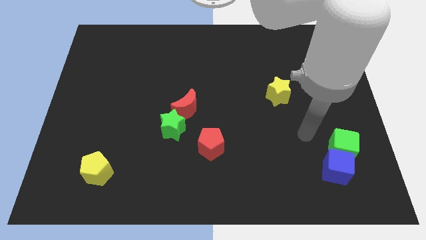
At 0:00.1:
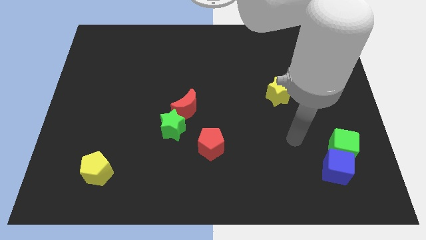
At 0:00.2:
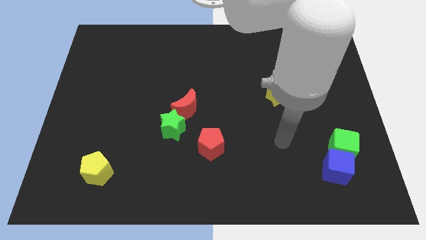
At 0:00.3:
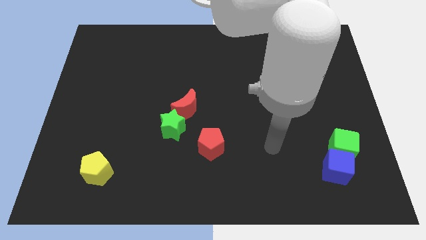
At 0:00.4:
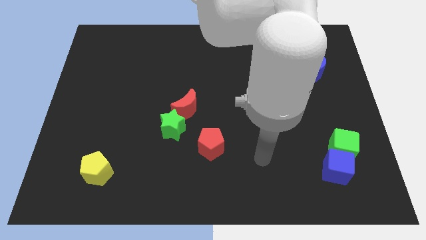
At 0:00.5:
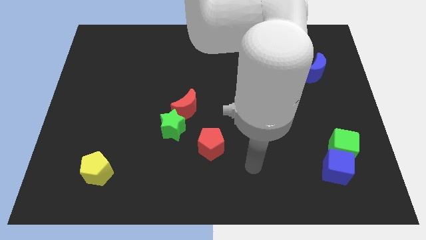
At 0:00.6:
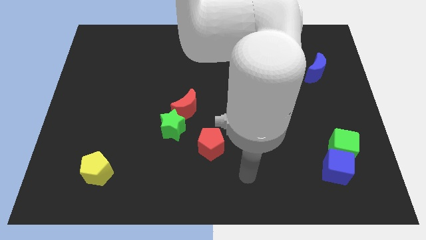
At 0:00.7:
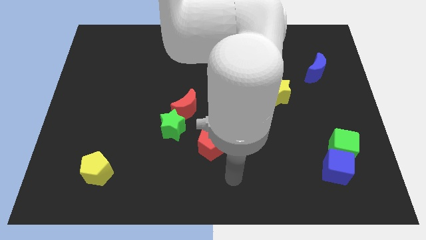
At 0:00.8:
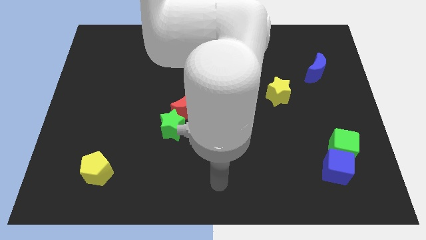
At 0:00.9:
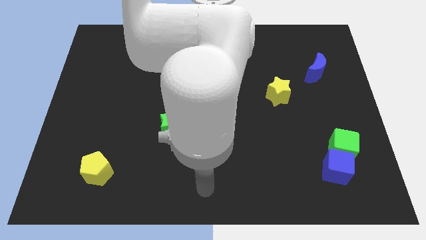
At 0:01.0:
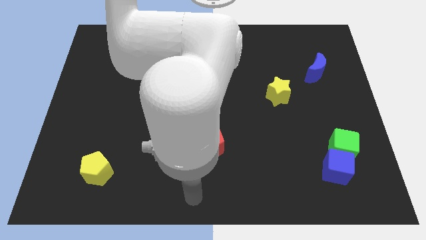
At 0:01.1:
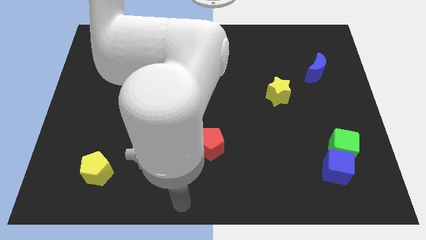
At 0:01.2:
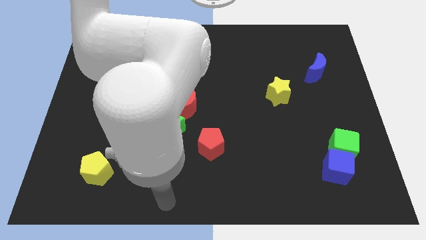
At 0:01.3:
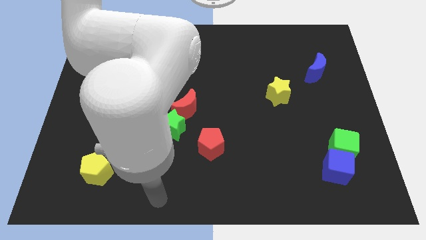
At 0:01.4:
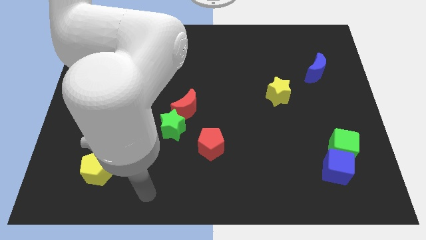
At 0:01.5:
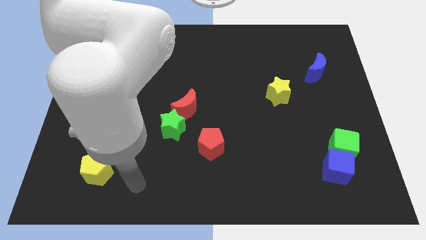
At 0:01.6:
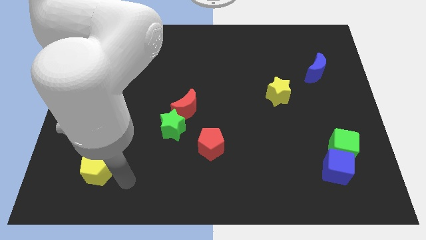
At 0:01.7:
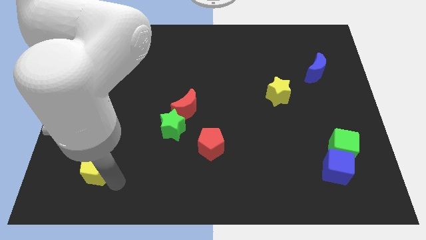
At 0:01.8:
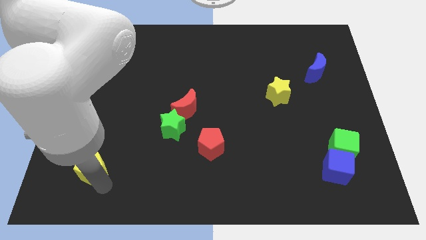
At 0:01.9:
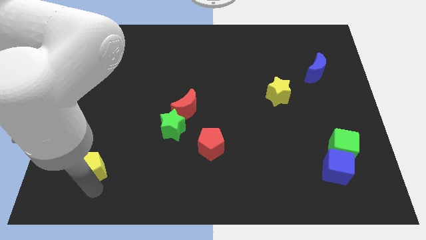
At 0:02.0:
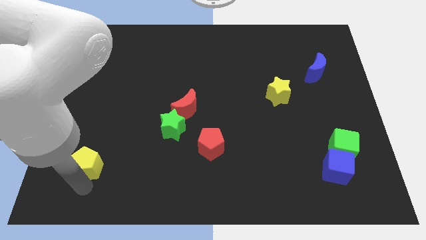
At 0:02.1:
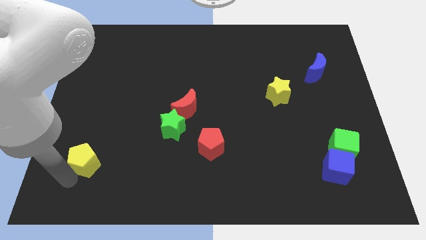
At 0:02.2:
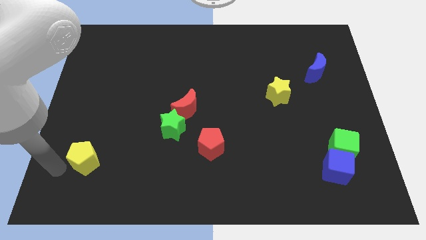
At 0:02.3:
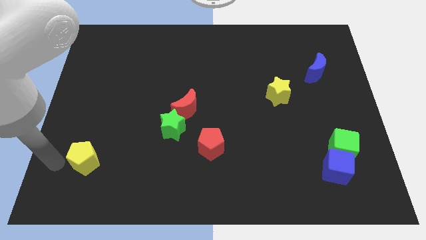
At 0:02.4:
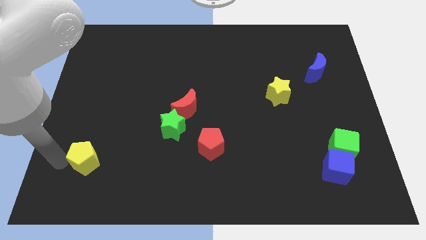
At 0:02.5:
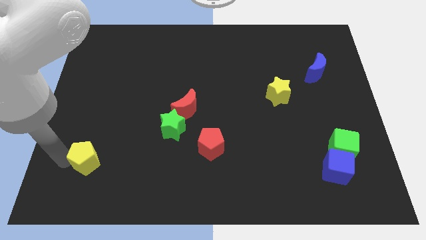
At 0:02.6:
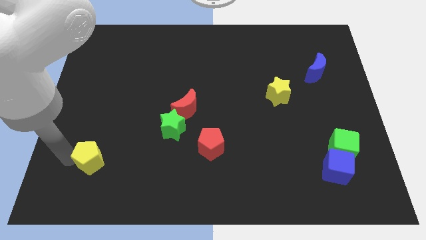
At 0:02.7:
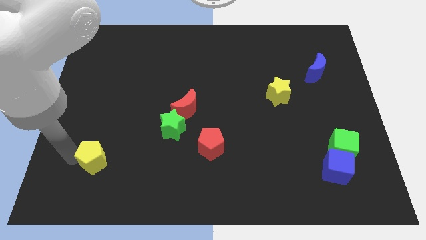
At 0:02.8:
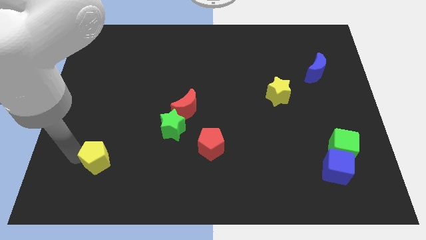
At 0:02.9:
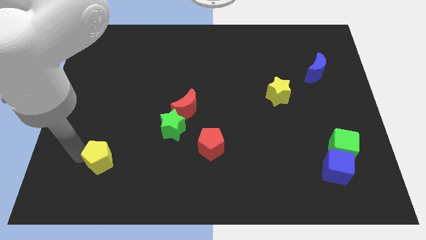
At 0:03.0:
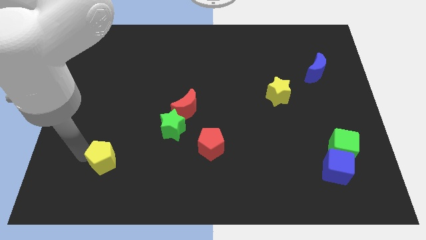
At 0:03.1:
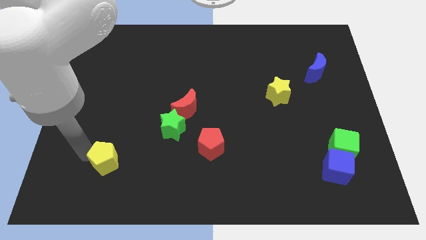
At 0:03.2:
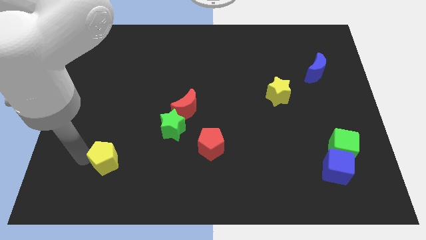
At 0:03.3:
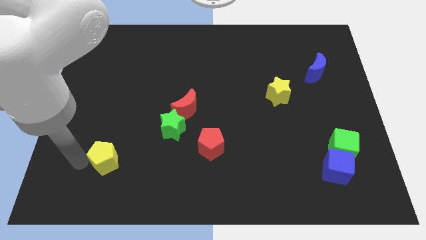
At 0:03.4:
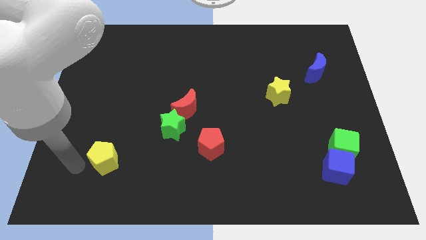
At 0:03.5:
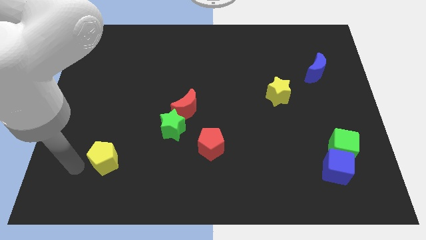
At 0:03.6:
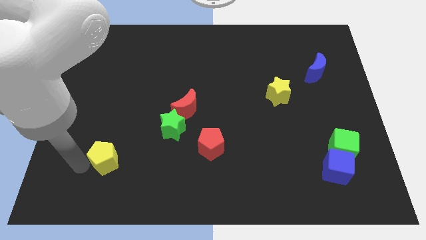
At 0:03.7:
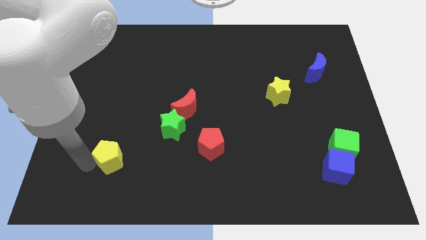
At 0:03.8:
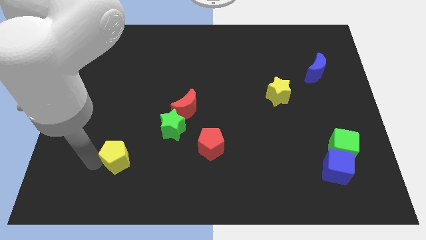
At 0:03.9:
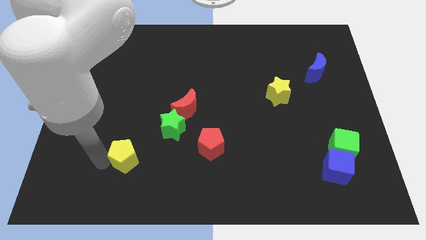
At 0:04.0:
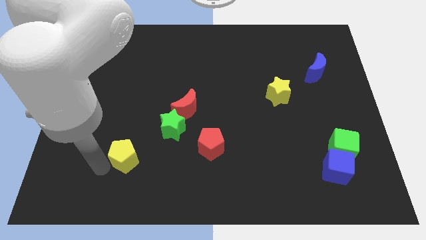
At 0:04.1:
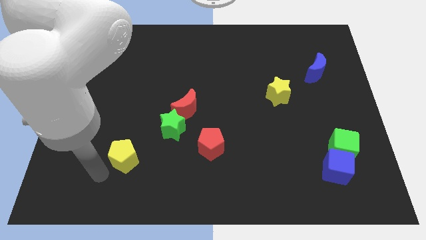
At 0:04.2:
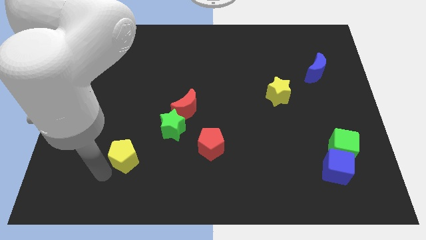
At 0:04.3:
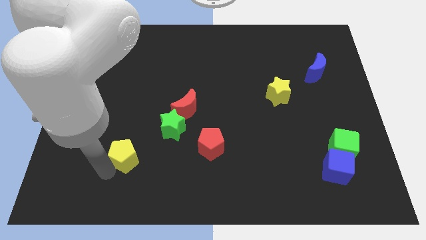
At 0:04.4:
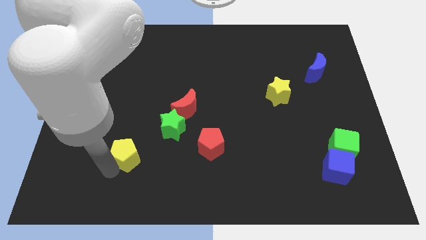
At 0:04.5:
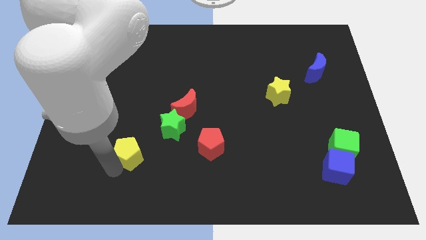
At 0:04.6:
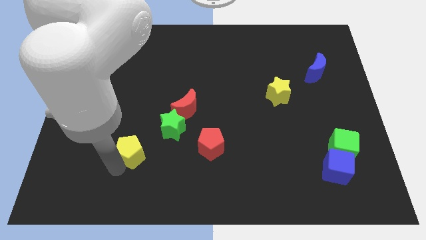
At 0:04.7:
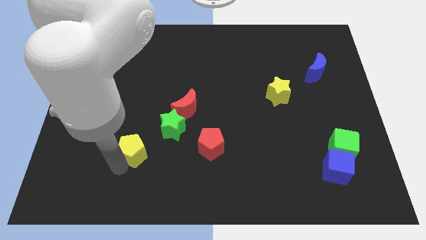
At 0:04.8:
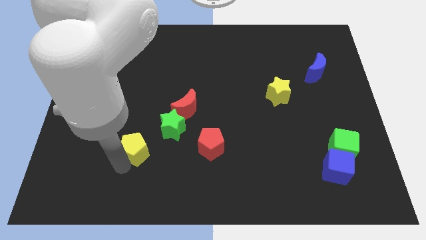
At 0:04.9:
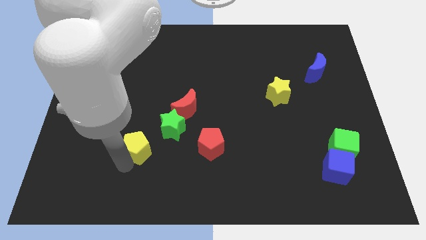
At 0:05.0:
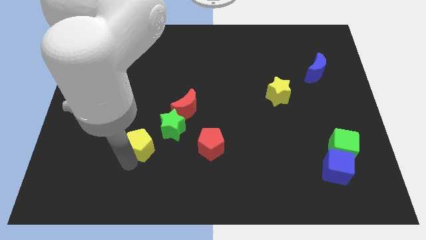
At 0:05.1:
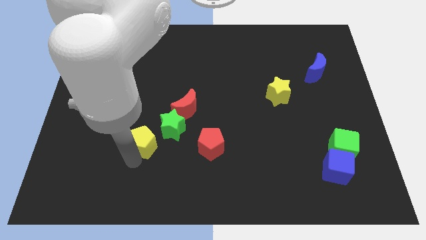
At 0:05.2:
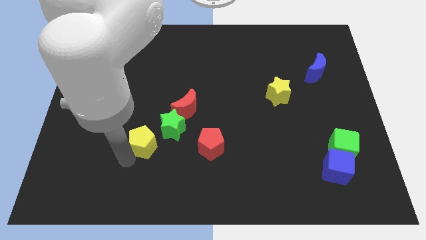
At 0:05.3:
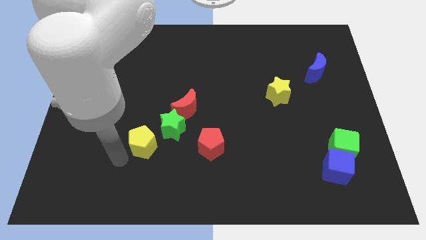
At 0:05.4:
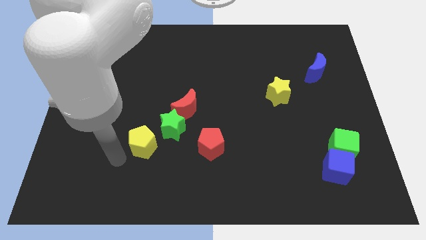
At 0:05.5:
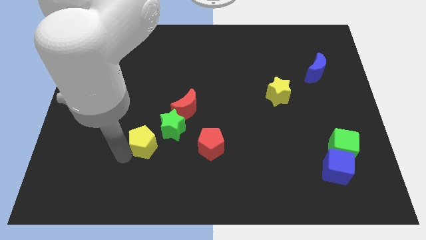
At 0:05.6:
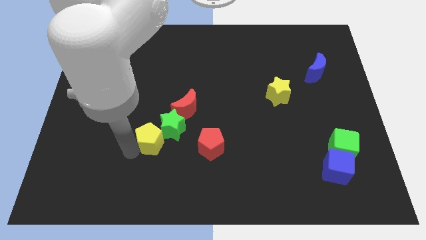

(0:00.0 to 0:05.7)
push the yellow pentagon next to the green star
